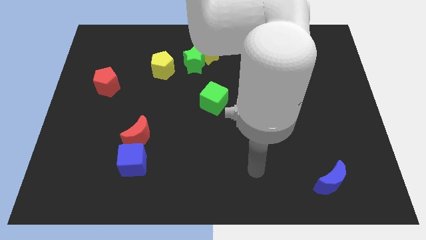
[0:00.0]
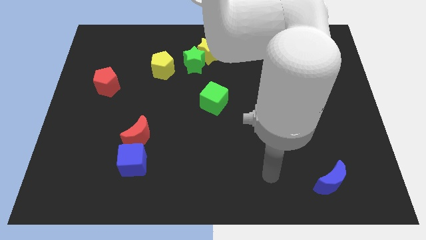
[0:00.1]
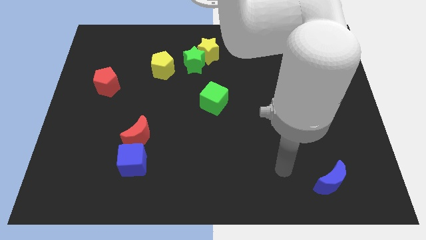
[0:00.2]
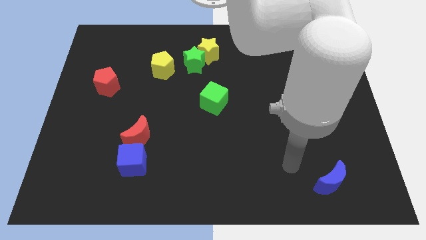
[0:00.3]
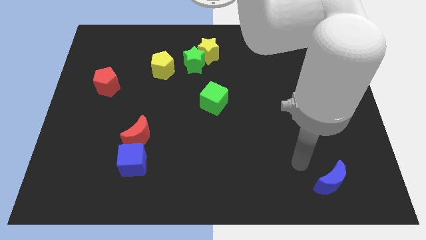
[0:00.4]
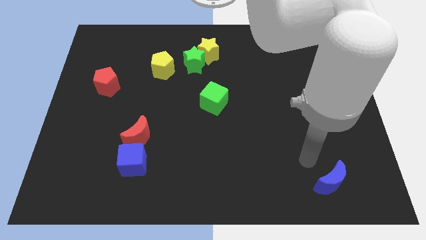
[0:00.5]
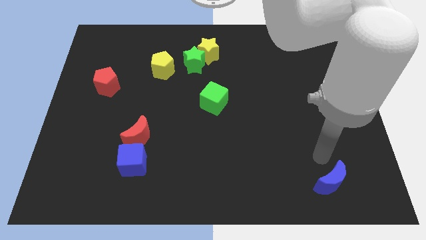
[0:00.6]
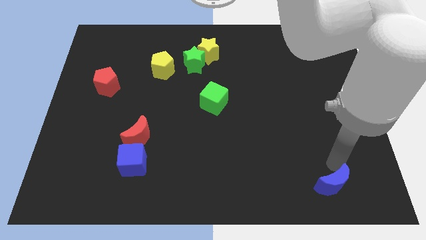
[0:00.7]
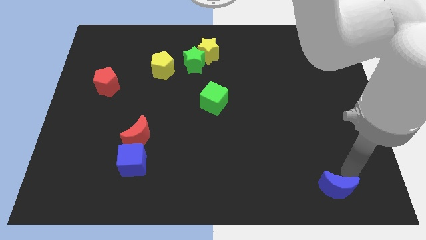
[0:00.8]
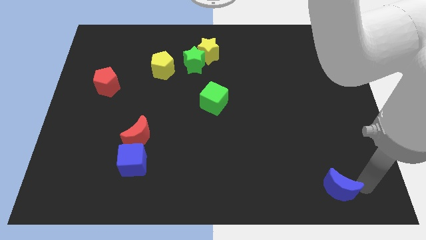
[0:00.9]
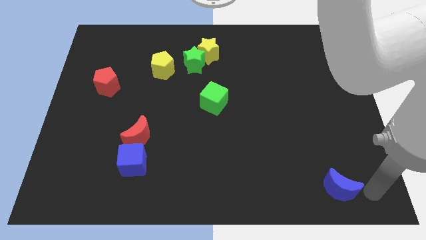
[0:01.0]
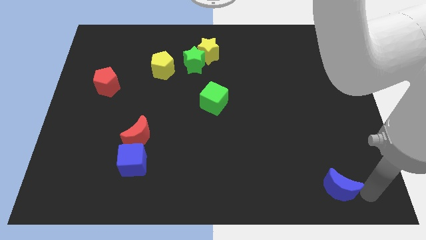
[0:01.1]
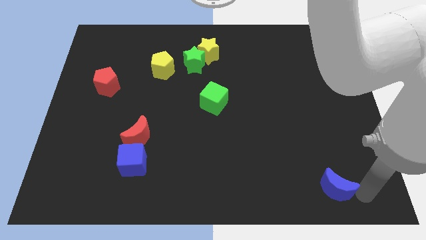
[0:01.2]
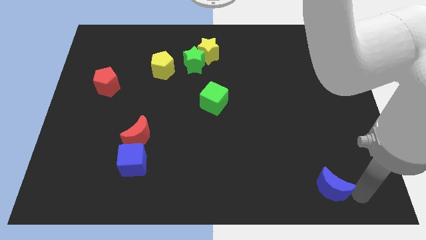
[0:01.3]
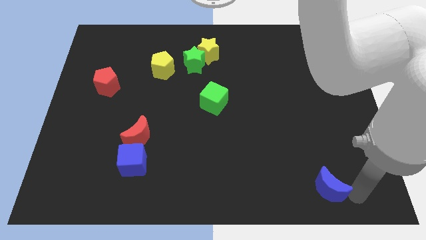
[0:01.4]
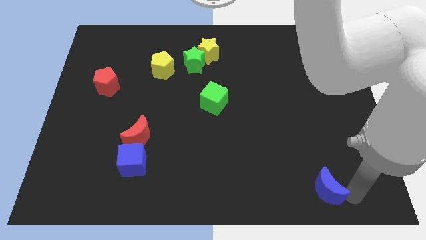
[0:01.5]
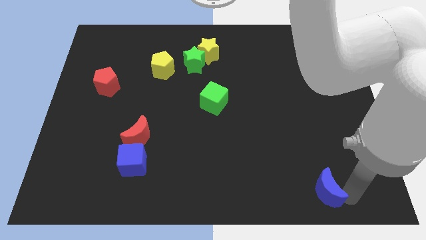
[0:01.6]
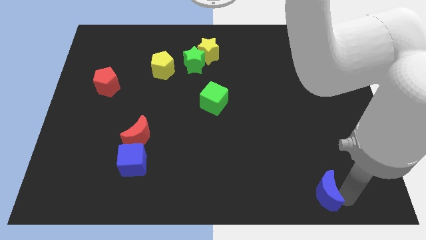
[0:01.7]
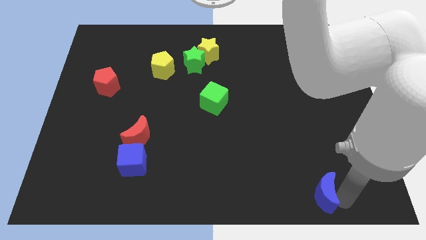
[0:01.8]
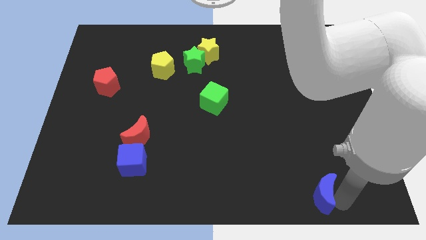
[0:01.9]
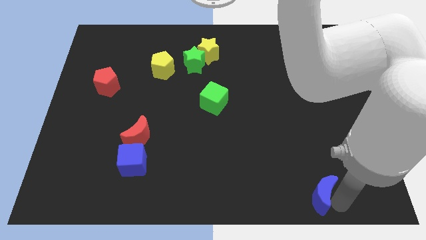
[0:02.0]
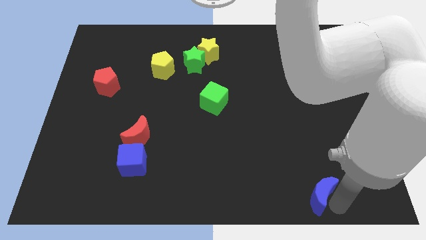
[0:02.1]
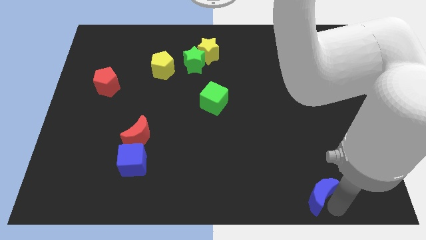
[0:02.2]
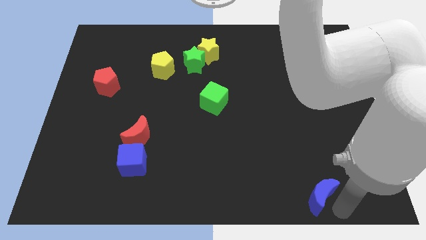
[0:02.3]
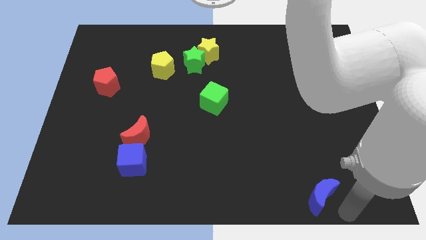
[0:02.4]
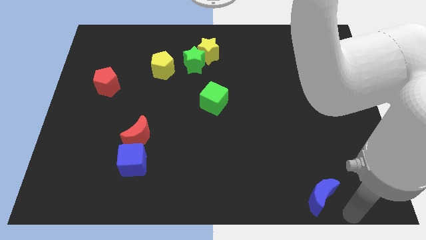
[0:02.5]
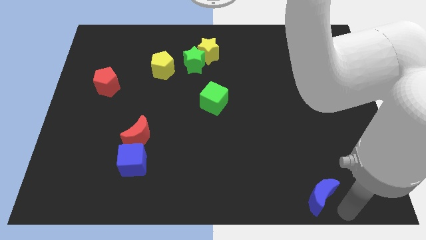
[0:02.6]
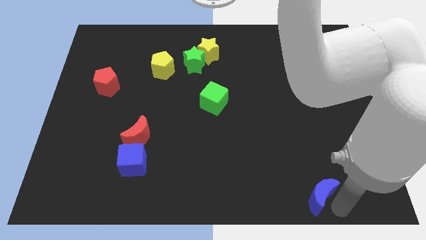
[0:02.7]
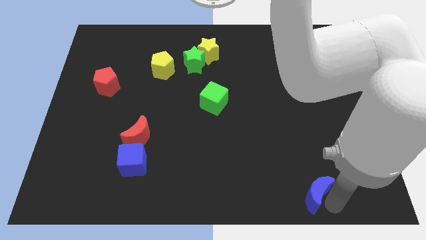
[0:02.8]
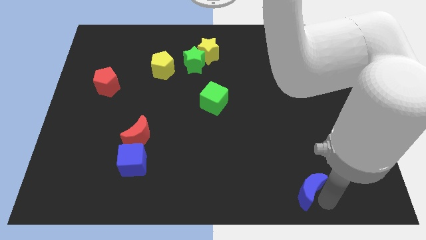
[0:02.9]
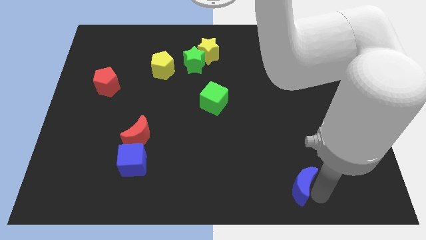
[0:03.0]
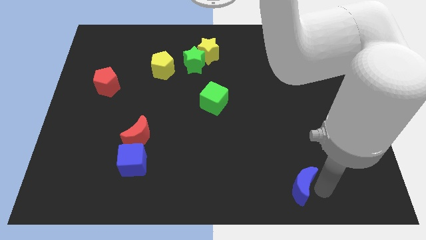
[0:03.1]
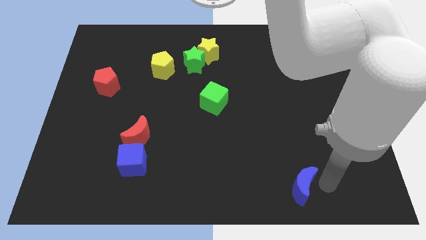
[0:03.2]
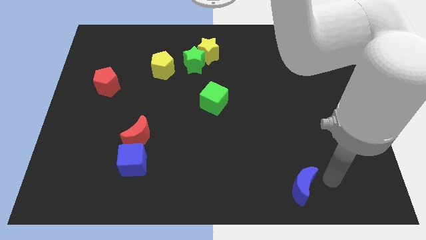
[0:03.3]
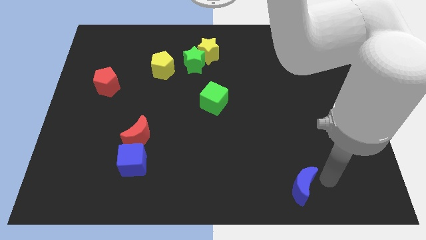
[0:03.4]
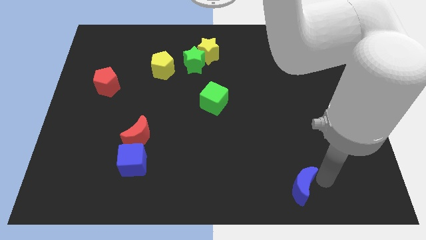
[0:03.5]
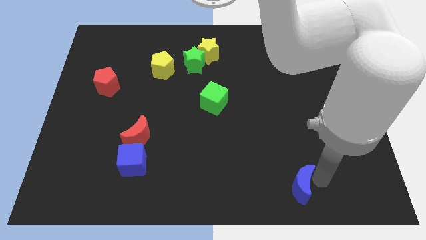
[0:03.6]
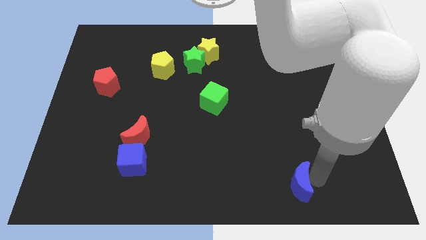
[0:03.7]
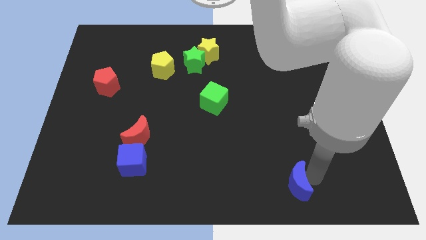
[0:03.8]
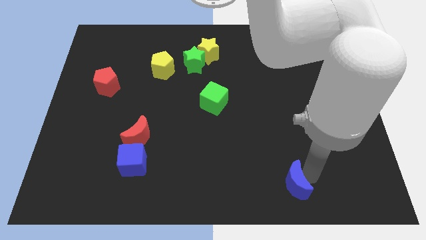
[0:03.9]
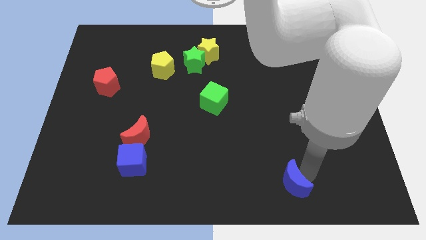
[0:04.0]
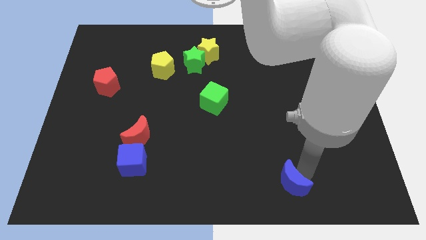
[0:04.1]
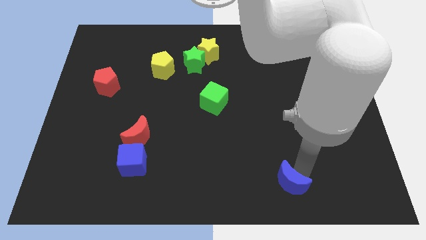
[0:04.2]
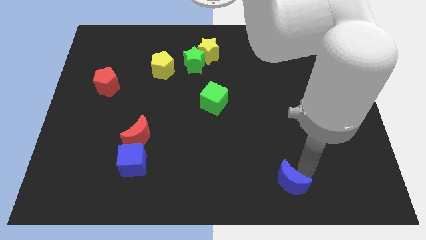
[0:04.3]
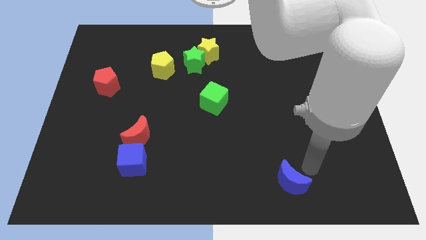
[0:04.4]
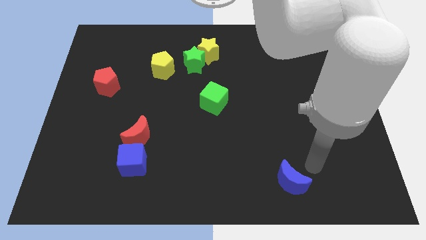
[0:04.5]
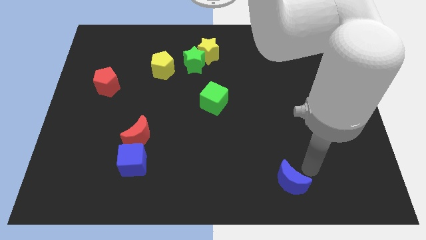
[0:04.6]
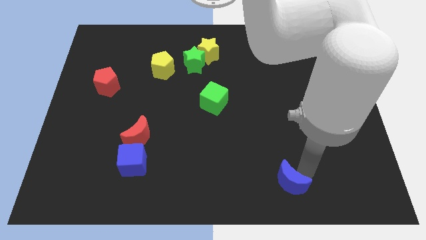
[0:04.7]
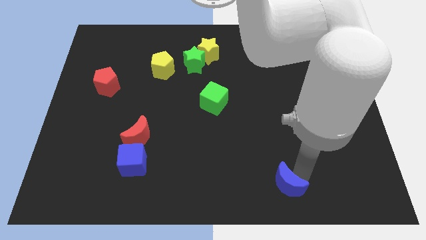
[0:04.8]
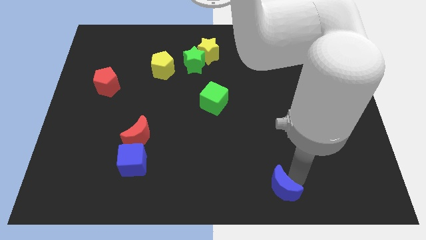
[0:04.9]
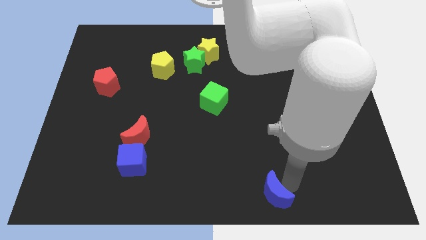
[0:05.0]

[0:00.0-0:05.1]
put the blue moon to the bottom side

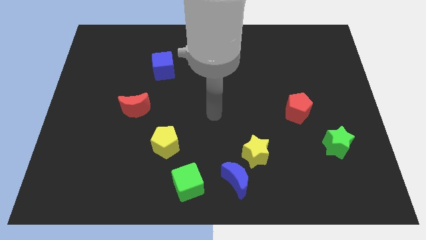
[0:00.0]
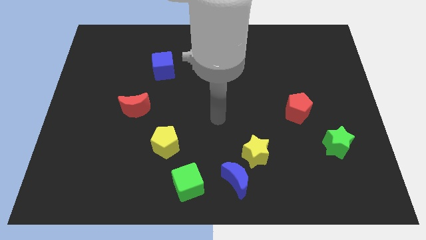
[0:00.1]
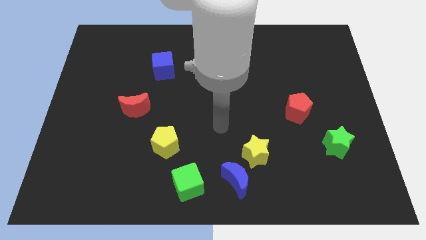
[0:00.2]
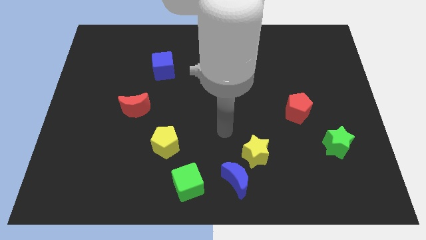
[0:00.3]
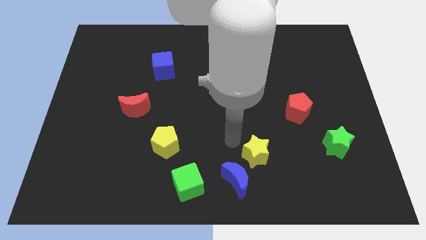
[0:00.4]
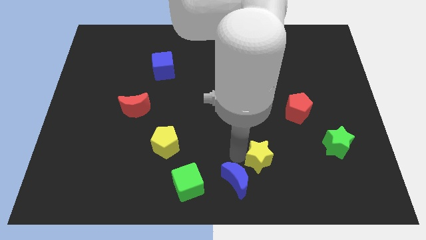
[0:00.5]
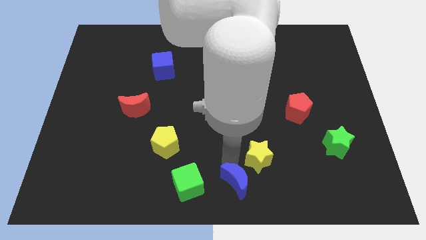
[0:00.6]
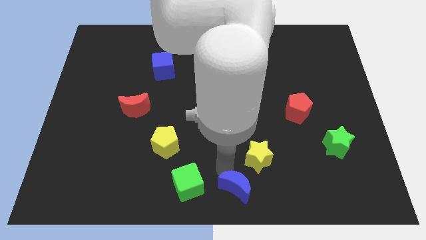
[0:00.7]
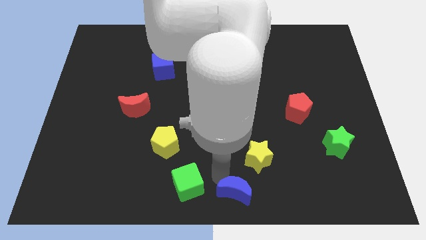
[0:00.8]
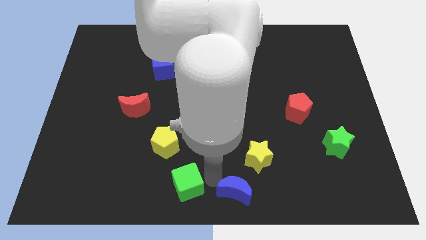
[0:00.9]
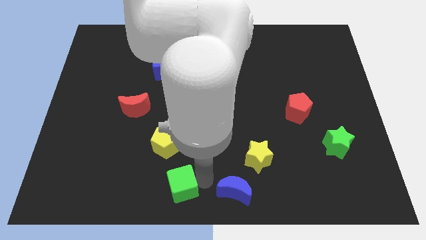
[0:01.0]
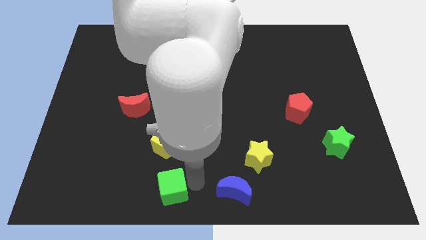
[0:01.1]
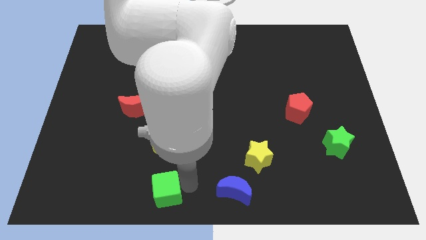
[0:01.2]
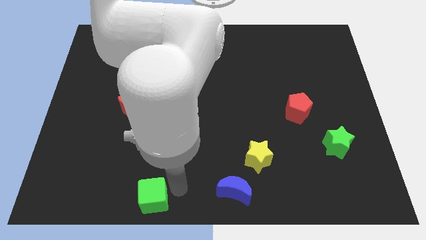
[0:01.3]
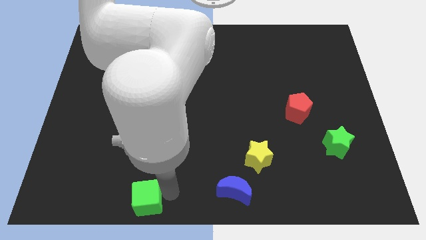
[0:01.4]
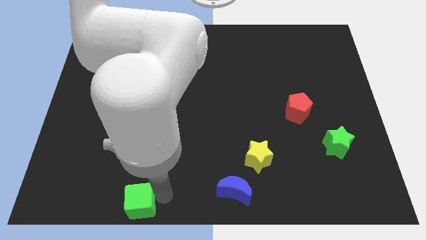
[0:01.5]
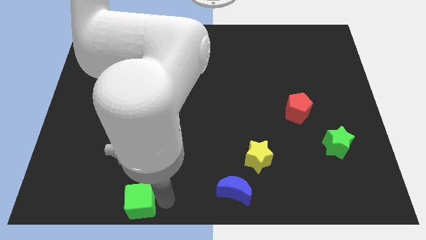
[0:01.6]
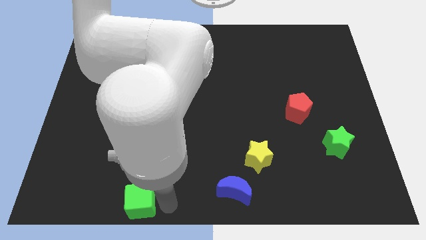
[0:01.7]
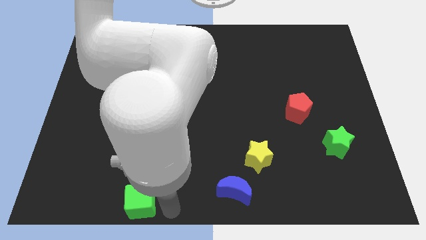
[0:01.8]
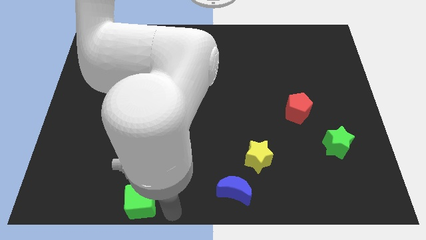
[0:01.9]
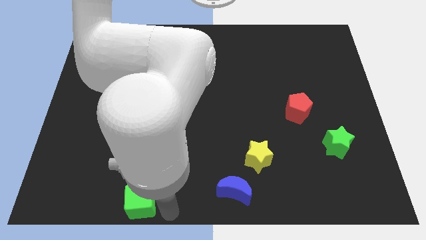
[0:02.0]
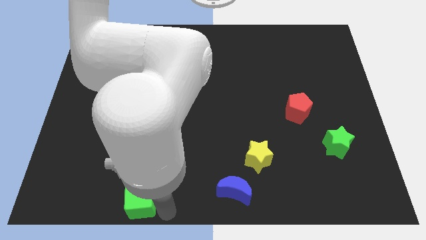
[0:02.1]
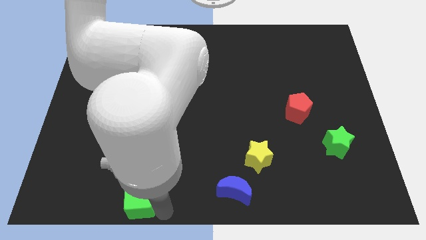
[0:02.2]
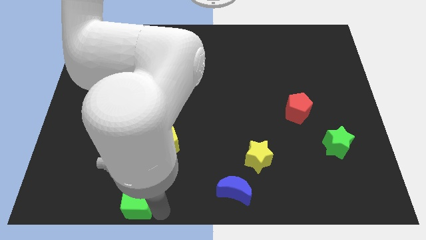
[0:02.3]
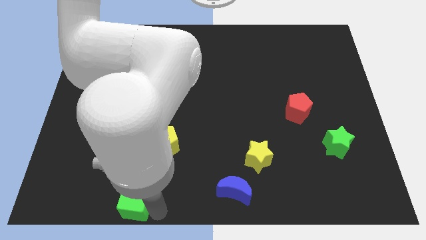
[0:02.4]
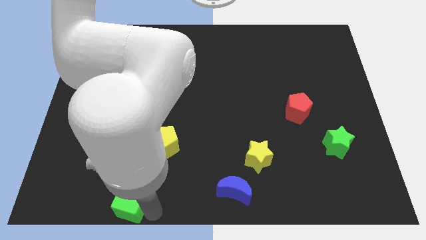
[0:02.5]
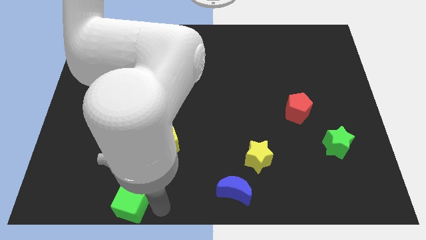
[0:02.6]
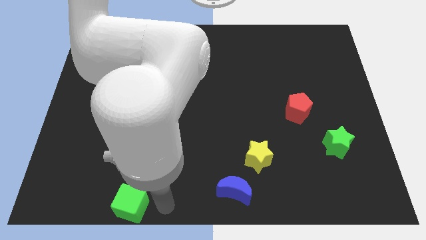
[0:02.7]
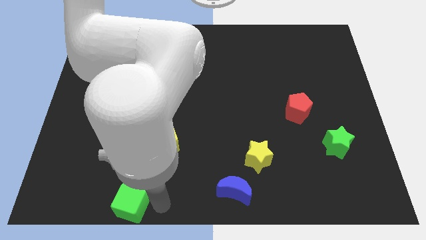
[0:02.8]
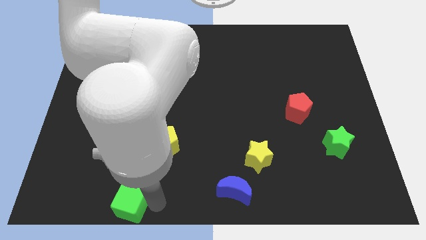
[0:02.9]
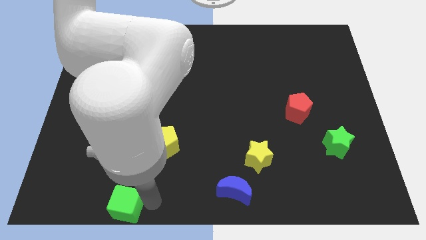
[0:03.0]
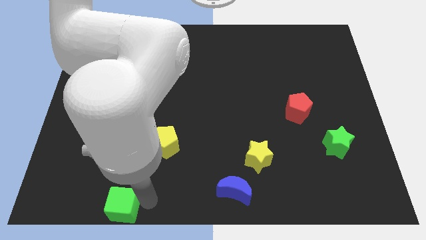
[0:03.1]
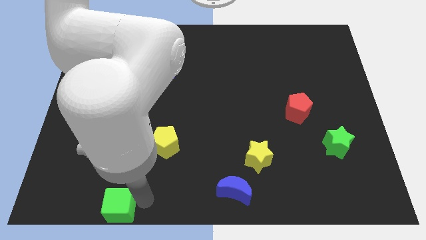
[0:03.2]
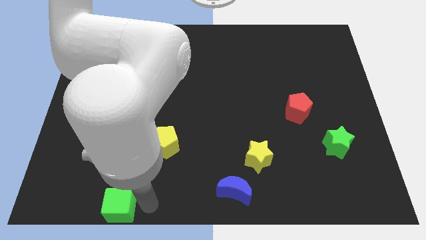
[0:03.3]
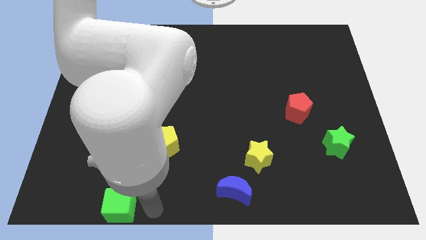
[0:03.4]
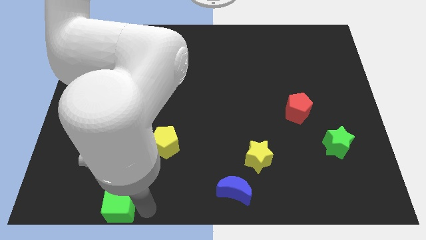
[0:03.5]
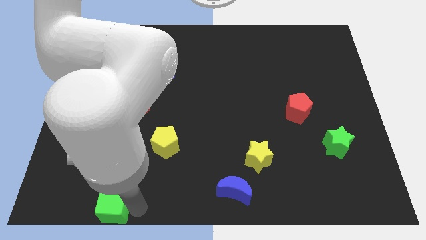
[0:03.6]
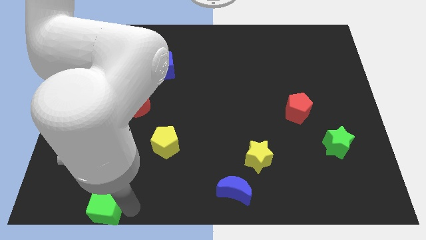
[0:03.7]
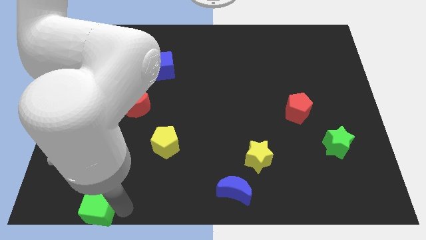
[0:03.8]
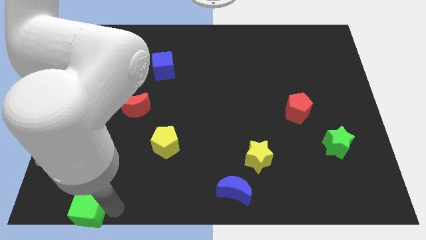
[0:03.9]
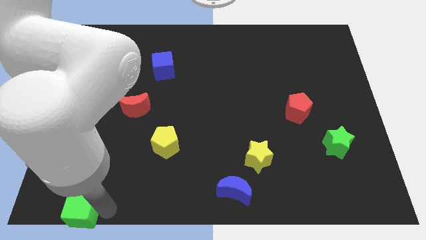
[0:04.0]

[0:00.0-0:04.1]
put the green cube to the bottom left corner
